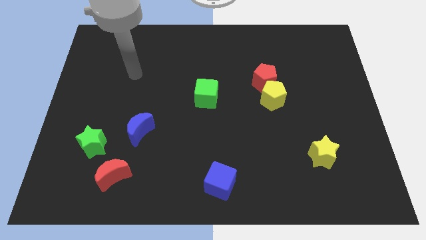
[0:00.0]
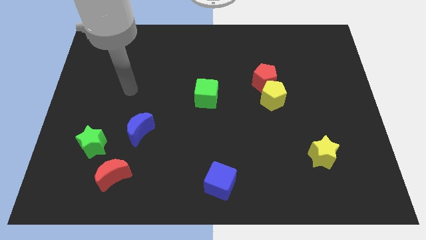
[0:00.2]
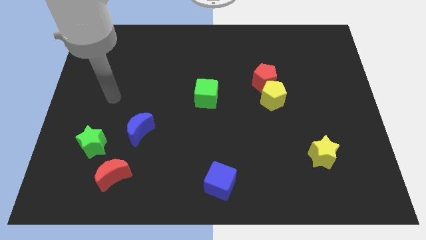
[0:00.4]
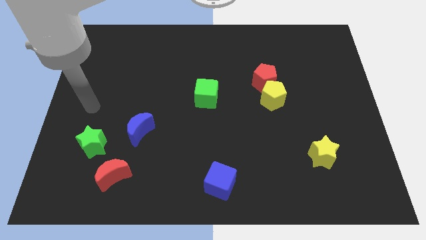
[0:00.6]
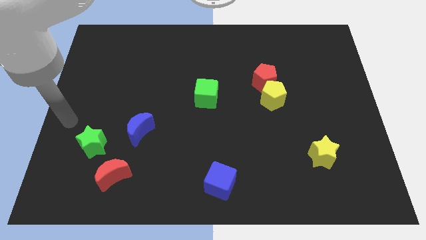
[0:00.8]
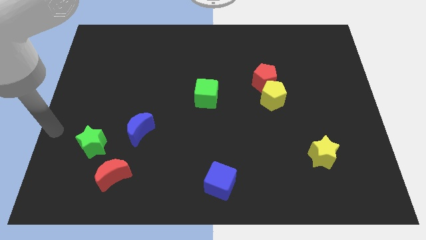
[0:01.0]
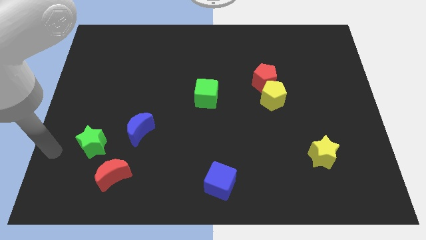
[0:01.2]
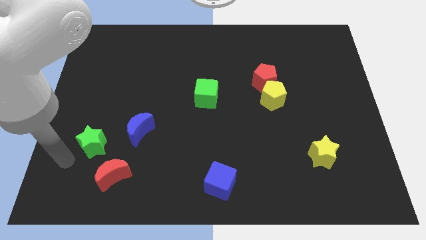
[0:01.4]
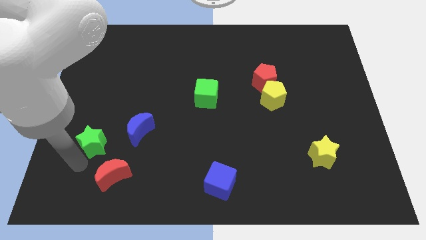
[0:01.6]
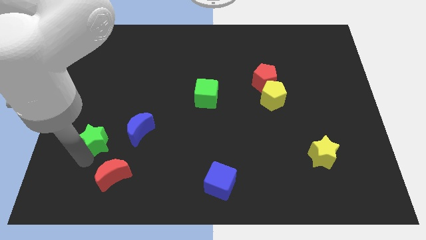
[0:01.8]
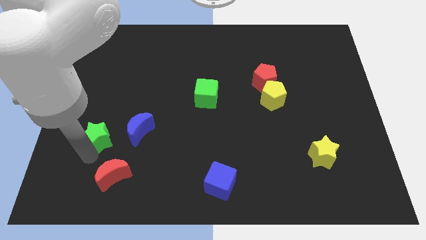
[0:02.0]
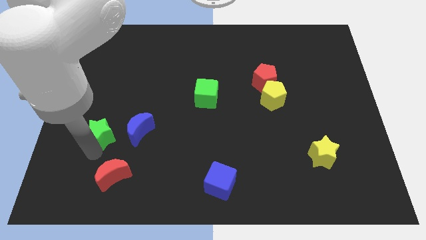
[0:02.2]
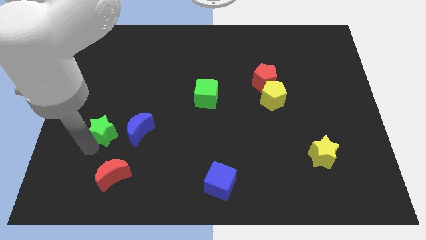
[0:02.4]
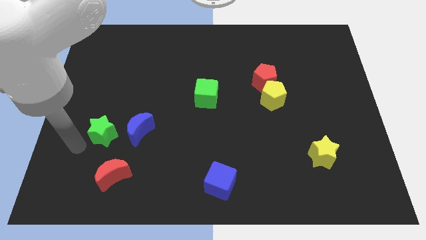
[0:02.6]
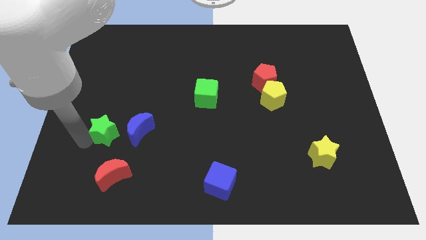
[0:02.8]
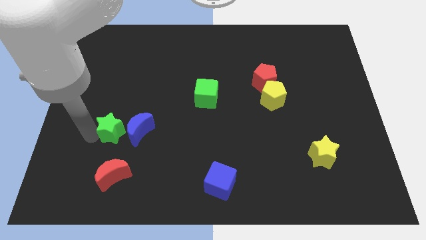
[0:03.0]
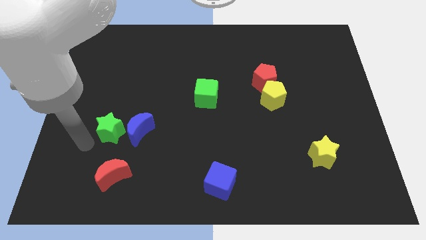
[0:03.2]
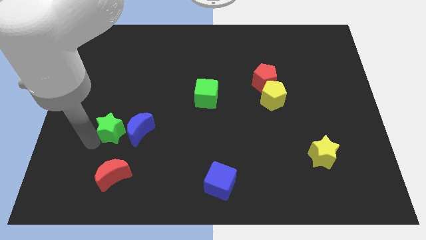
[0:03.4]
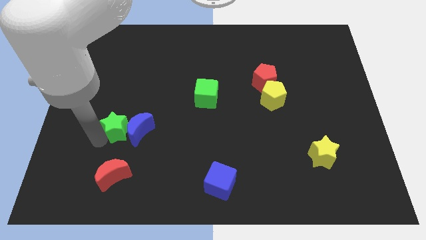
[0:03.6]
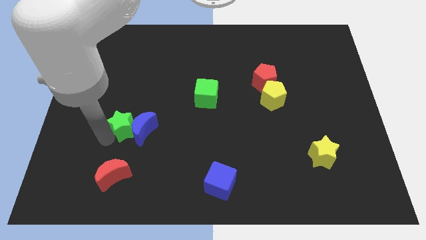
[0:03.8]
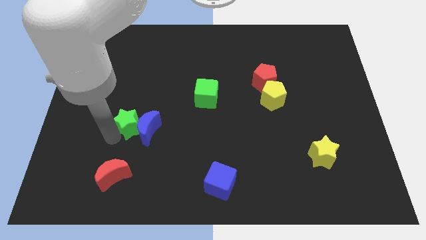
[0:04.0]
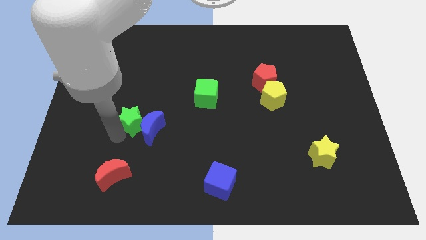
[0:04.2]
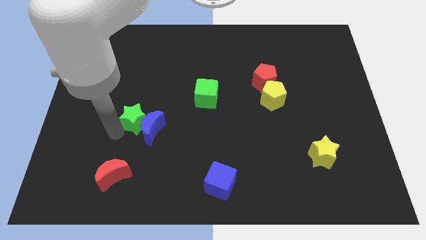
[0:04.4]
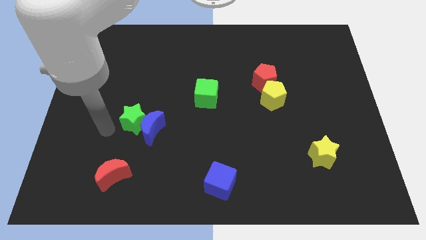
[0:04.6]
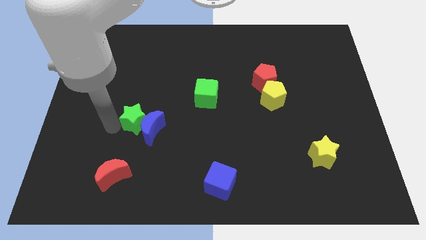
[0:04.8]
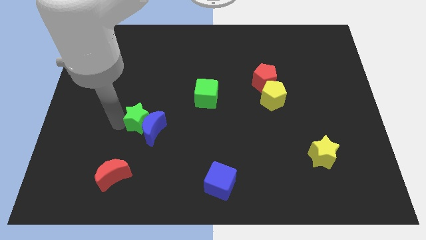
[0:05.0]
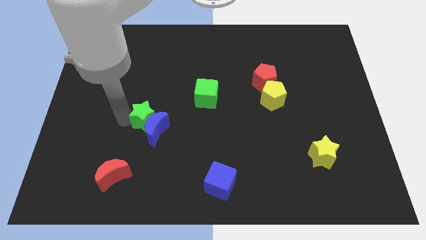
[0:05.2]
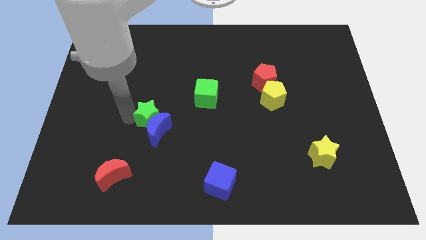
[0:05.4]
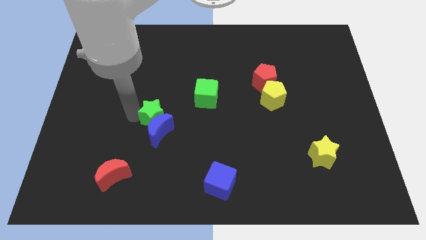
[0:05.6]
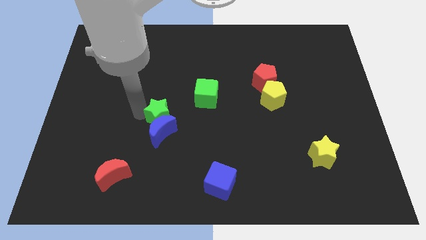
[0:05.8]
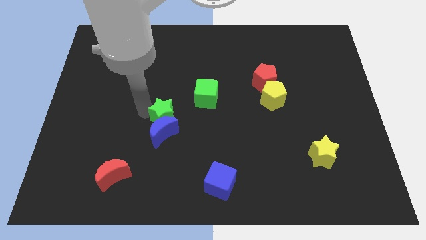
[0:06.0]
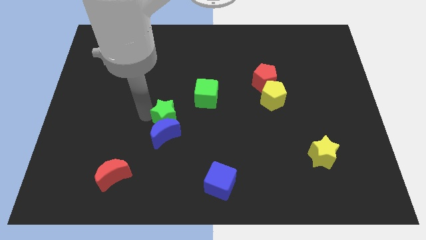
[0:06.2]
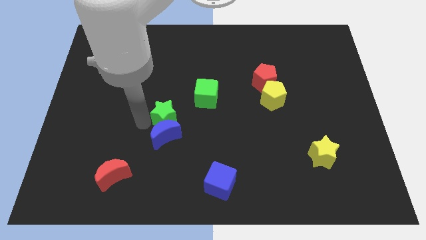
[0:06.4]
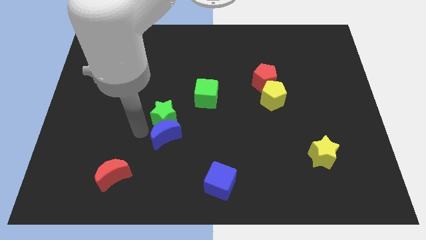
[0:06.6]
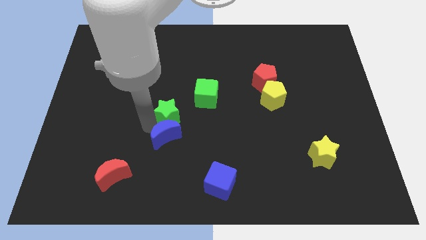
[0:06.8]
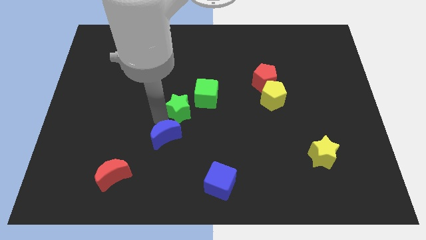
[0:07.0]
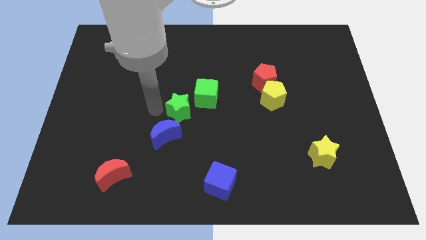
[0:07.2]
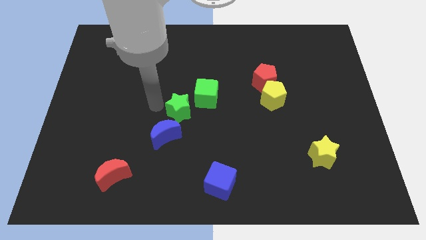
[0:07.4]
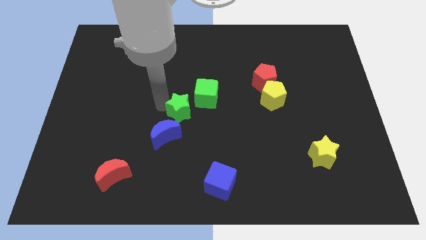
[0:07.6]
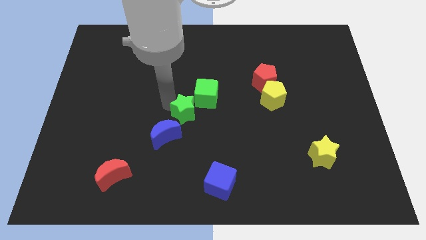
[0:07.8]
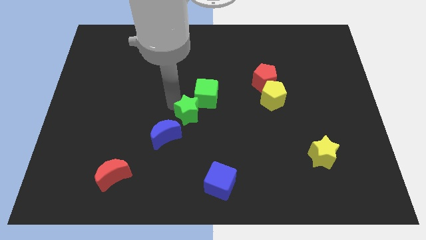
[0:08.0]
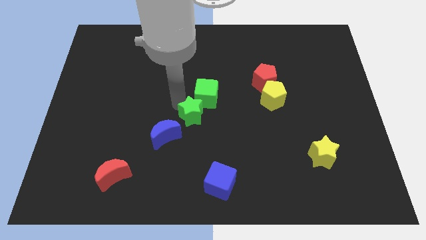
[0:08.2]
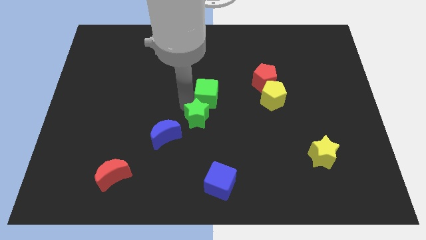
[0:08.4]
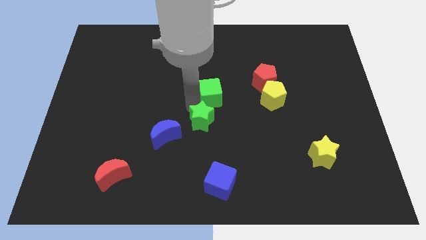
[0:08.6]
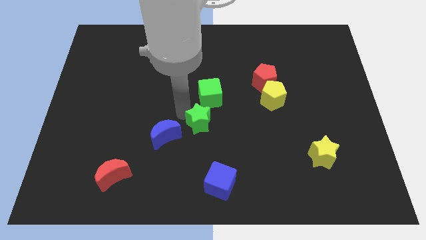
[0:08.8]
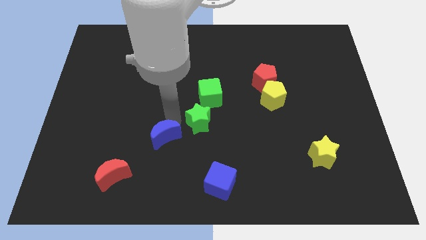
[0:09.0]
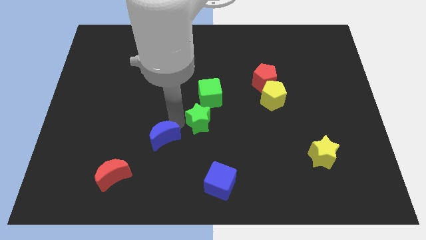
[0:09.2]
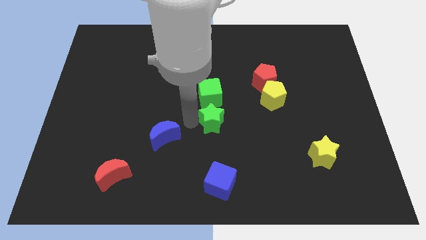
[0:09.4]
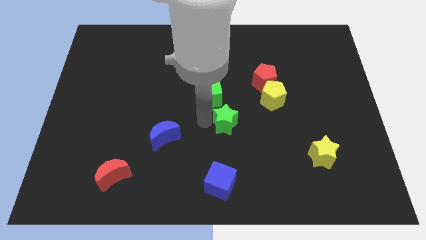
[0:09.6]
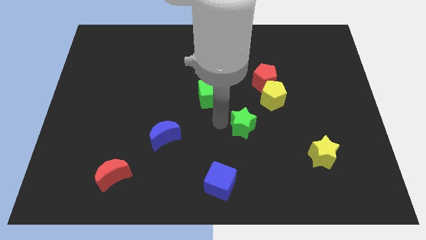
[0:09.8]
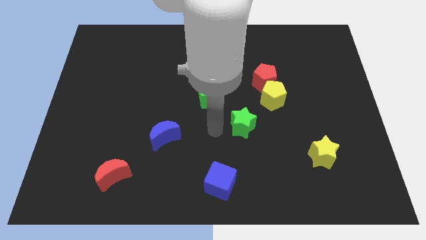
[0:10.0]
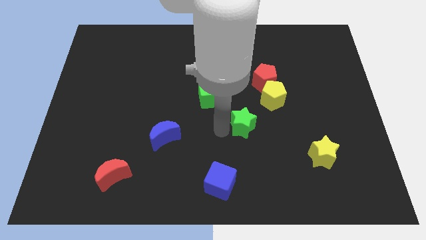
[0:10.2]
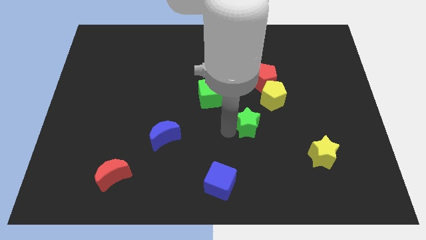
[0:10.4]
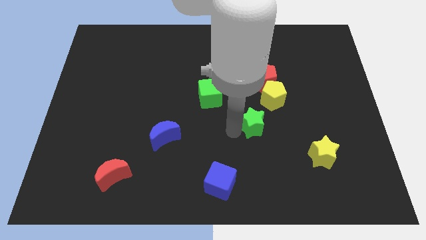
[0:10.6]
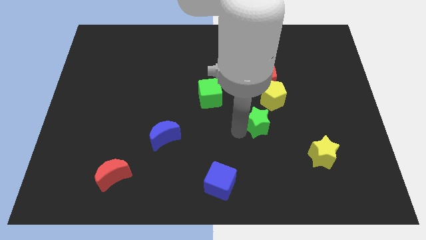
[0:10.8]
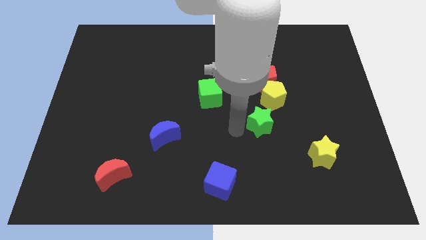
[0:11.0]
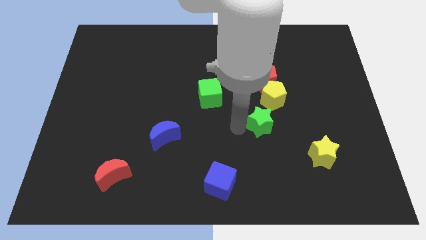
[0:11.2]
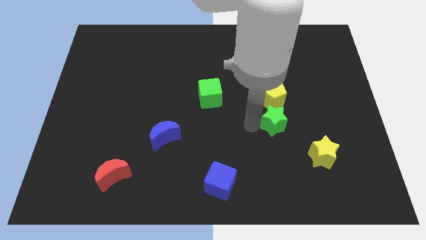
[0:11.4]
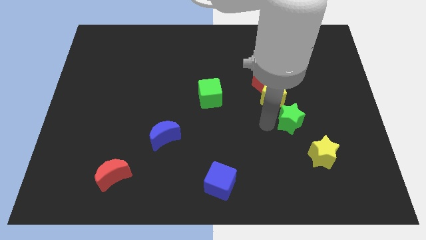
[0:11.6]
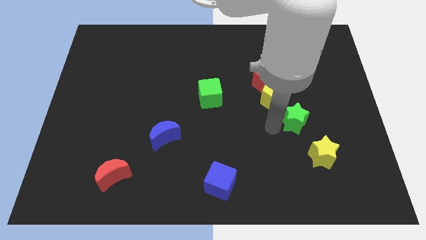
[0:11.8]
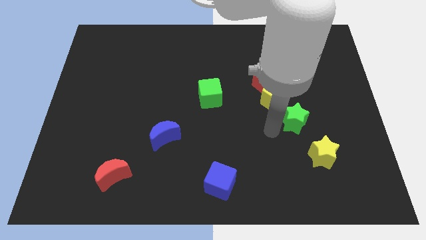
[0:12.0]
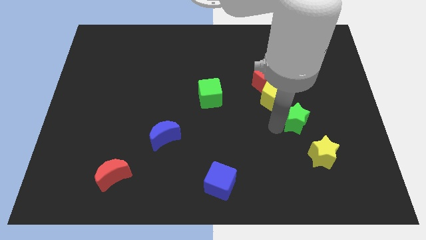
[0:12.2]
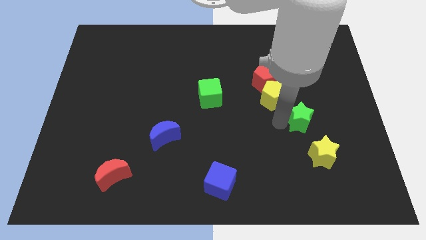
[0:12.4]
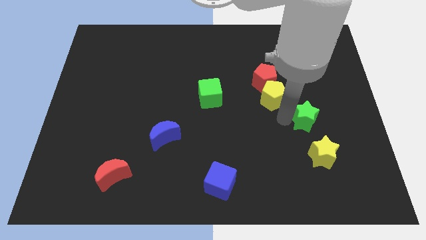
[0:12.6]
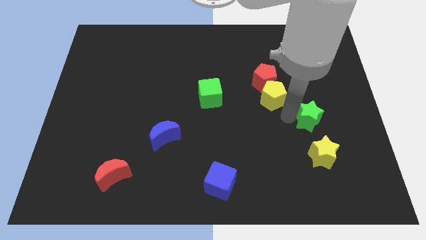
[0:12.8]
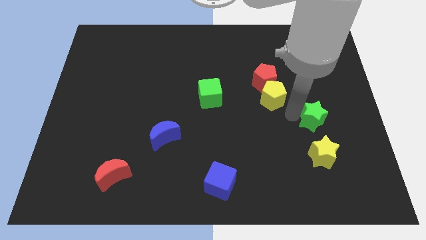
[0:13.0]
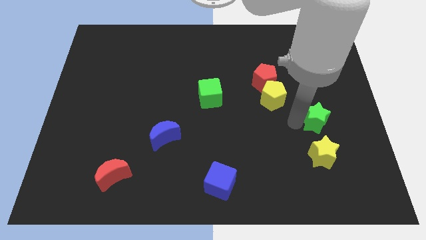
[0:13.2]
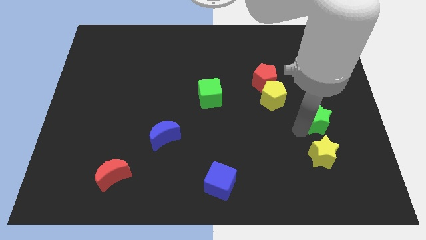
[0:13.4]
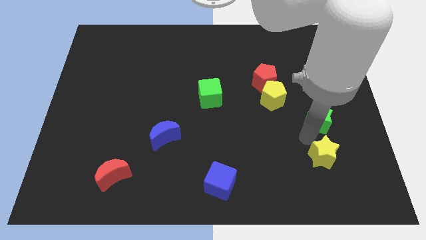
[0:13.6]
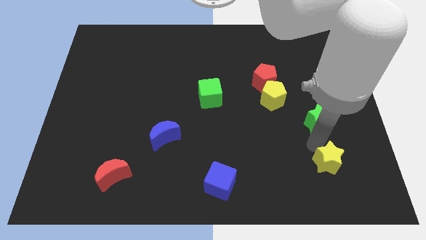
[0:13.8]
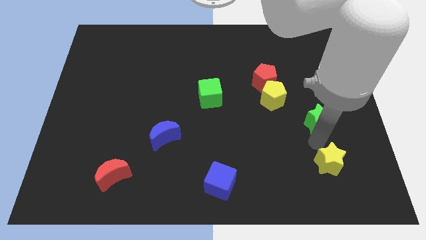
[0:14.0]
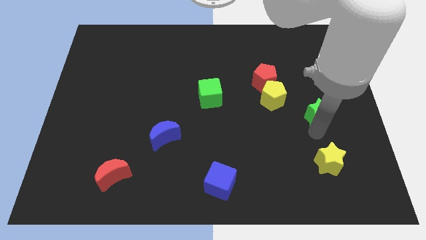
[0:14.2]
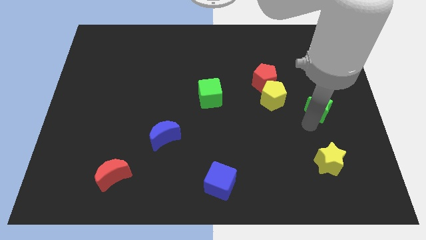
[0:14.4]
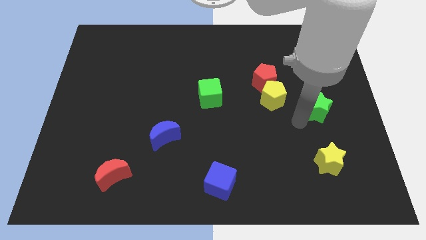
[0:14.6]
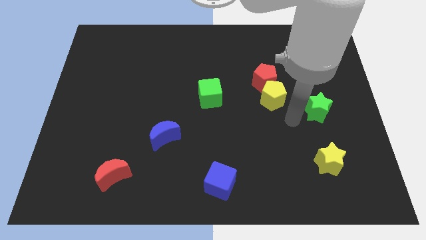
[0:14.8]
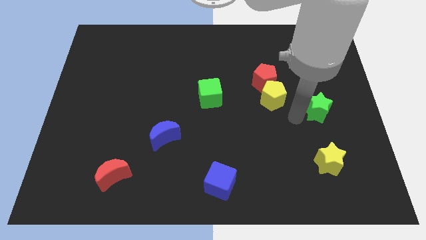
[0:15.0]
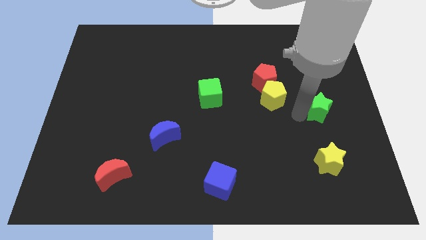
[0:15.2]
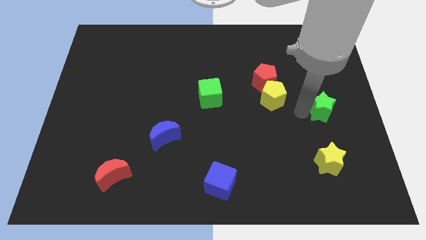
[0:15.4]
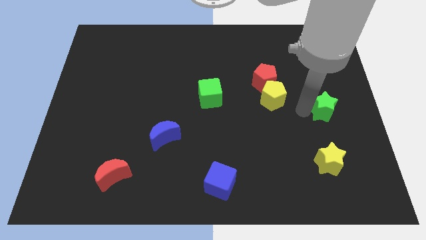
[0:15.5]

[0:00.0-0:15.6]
put the green star to the right side of the board
